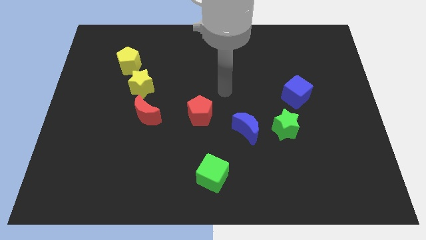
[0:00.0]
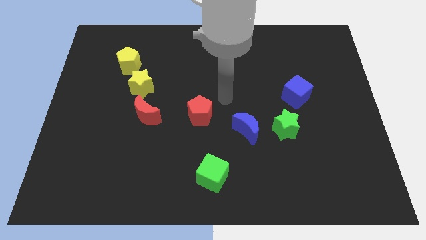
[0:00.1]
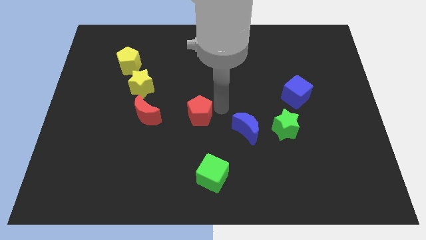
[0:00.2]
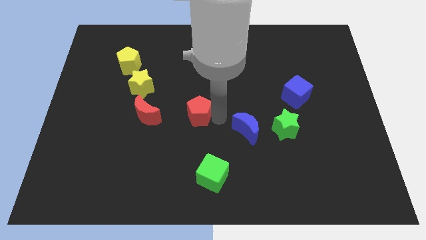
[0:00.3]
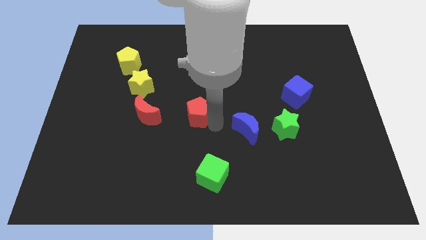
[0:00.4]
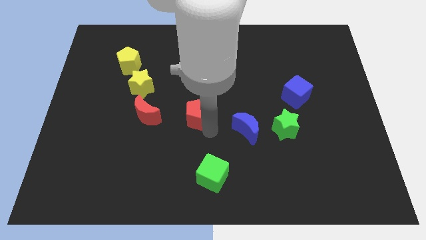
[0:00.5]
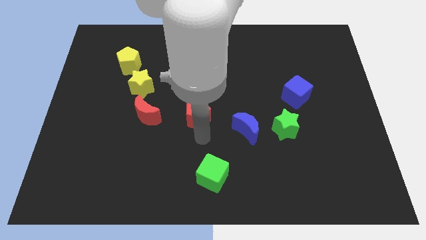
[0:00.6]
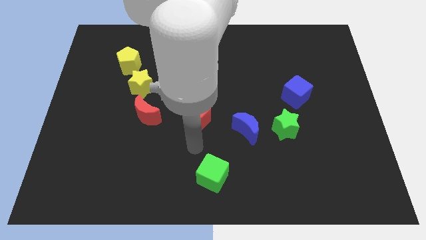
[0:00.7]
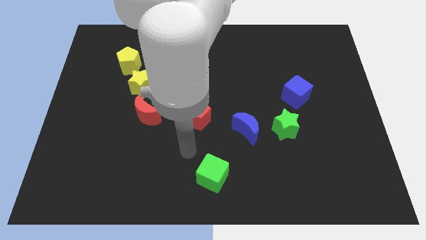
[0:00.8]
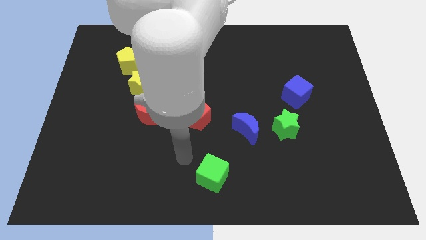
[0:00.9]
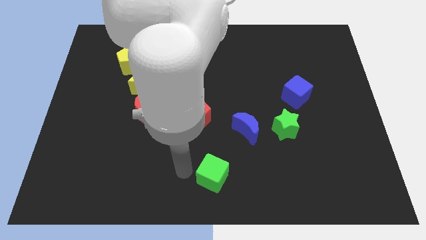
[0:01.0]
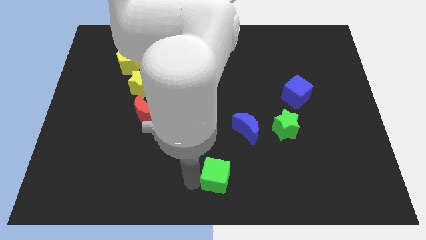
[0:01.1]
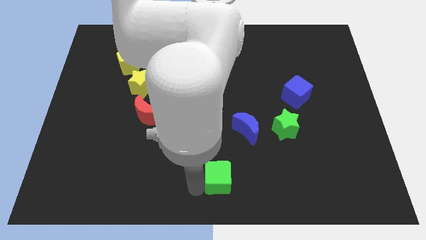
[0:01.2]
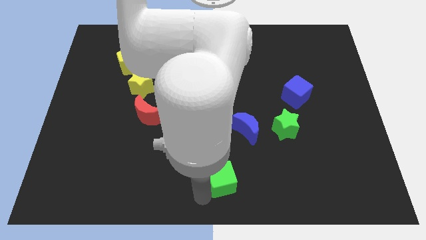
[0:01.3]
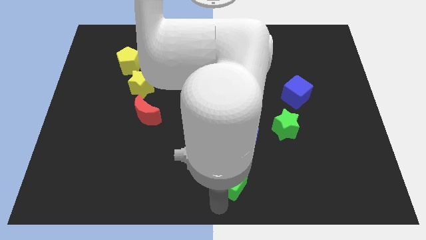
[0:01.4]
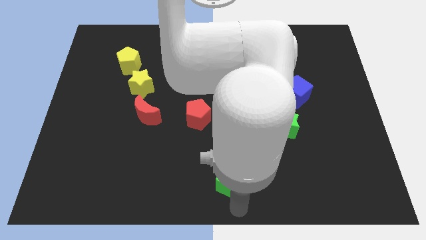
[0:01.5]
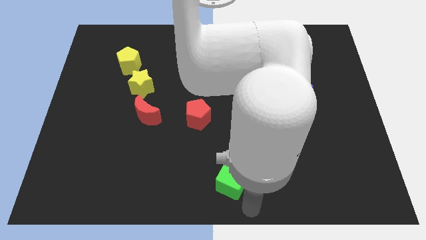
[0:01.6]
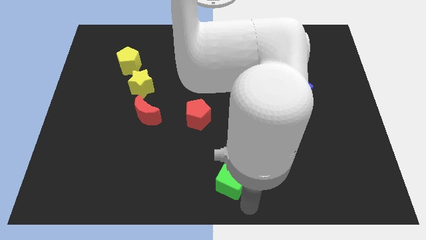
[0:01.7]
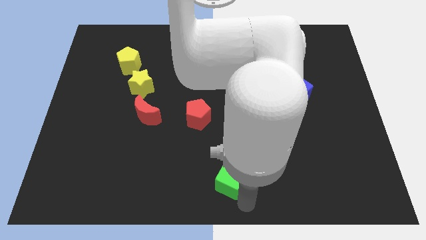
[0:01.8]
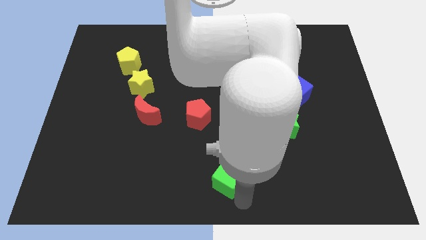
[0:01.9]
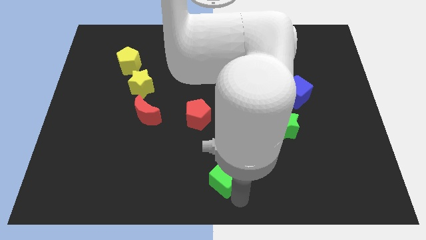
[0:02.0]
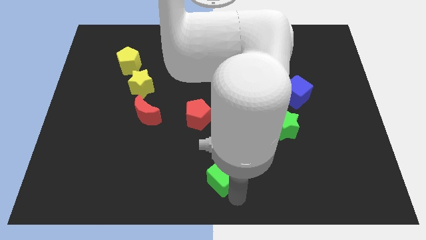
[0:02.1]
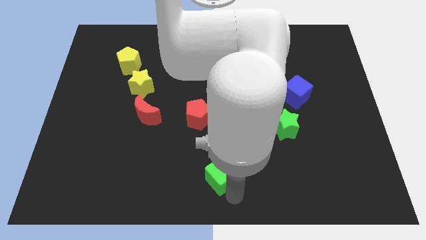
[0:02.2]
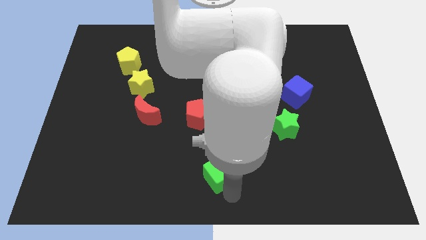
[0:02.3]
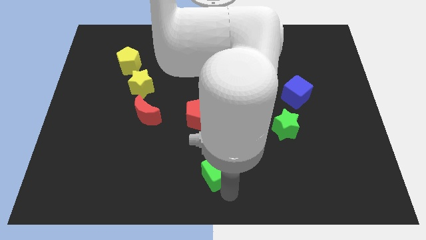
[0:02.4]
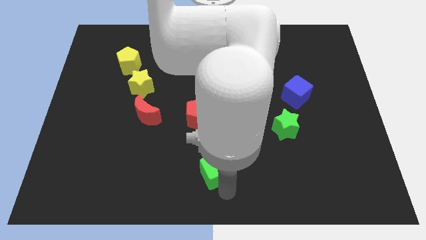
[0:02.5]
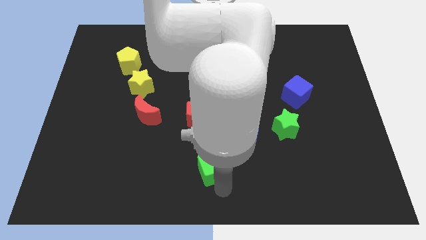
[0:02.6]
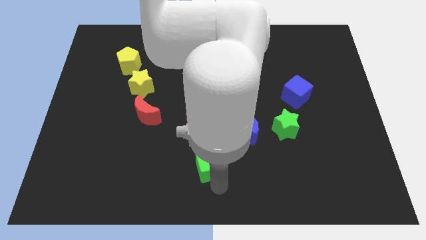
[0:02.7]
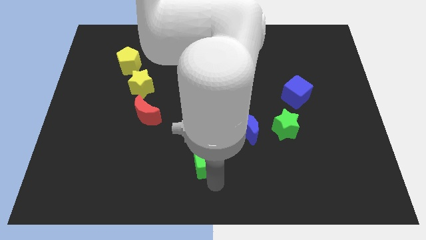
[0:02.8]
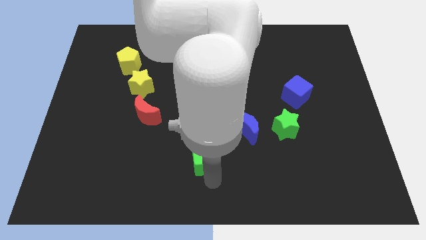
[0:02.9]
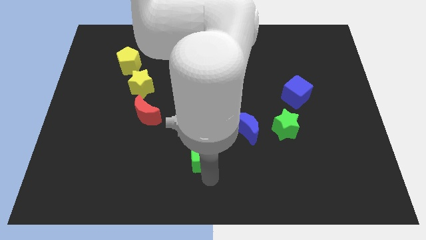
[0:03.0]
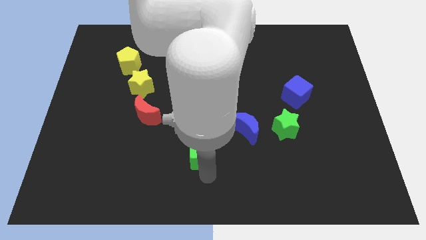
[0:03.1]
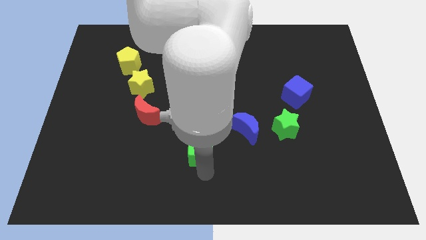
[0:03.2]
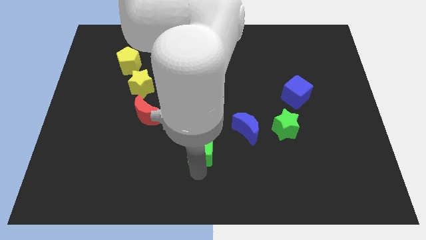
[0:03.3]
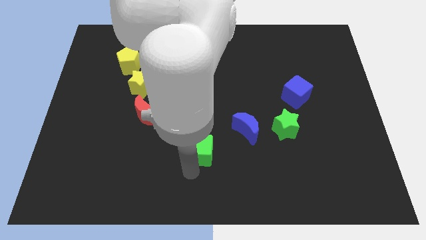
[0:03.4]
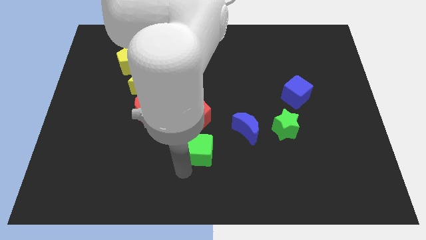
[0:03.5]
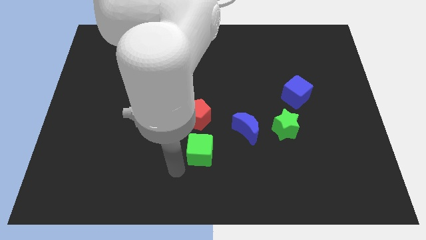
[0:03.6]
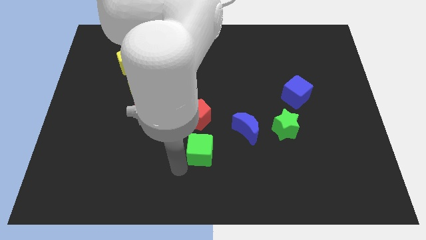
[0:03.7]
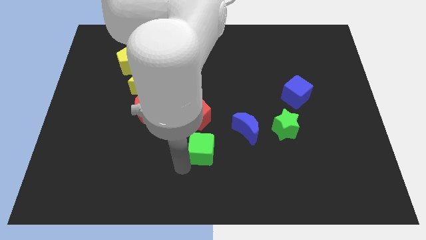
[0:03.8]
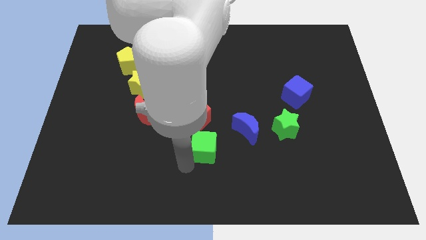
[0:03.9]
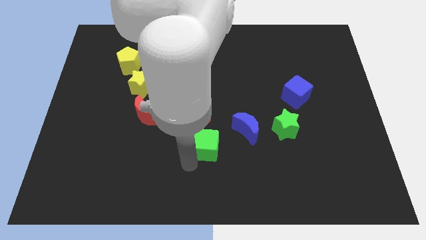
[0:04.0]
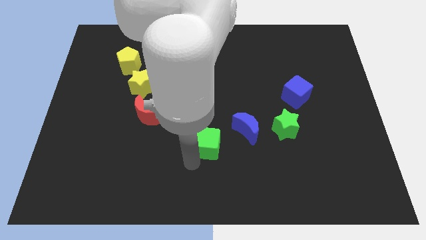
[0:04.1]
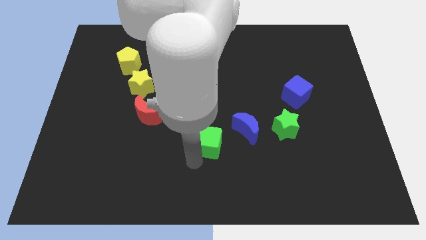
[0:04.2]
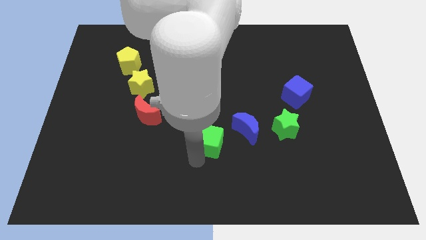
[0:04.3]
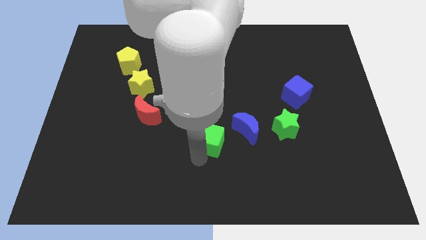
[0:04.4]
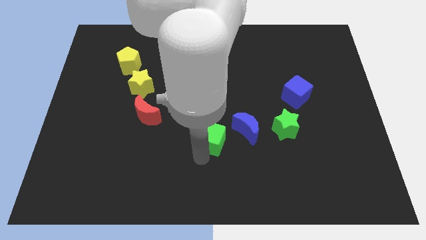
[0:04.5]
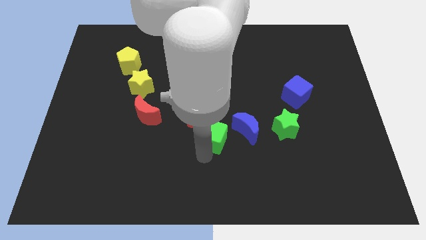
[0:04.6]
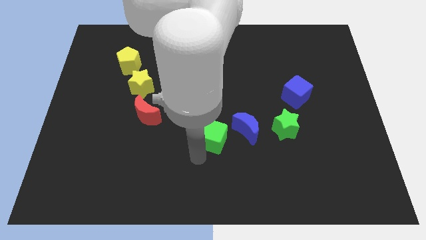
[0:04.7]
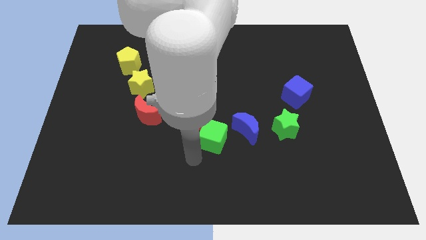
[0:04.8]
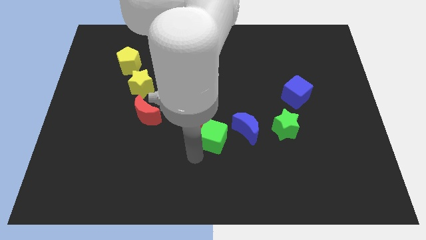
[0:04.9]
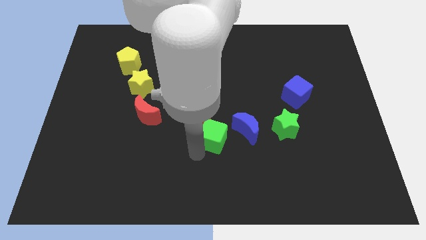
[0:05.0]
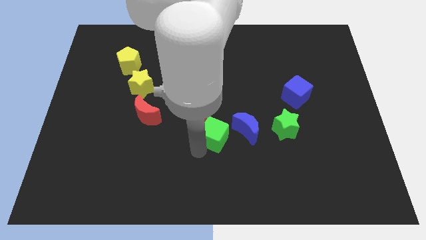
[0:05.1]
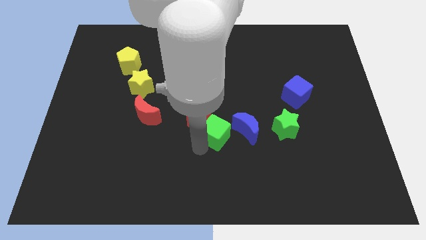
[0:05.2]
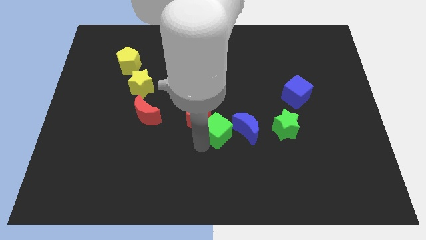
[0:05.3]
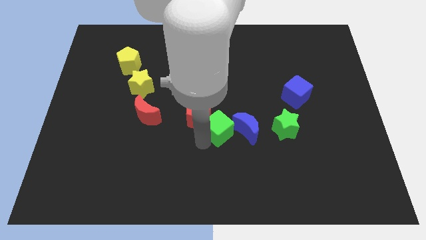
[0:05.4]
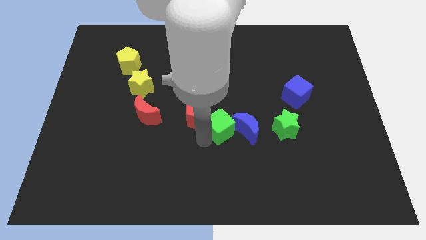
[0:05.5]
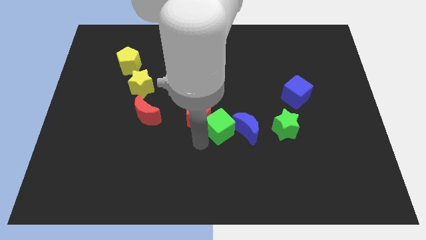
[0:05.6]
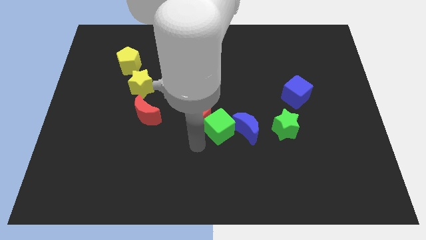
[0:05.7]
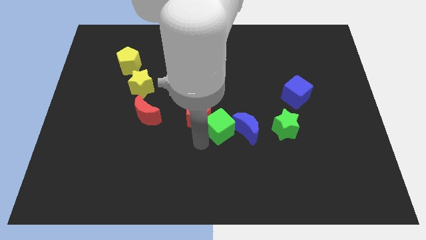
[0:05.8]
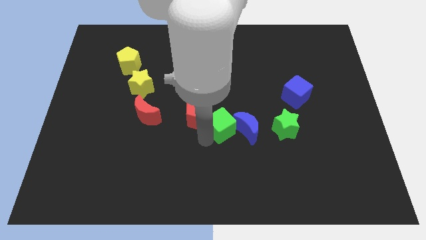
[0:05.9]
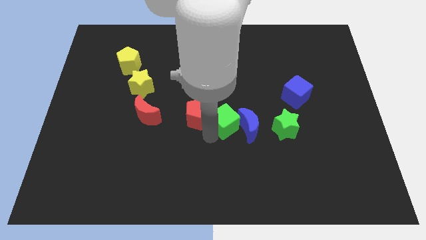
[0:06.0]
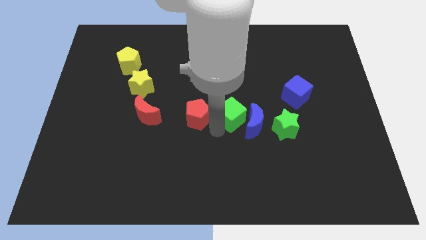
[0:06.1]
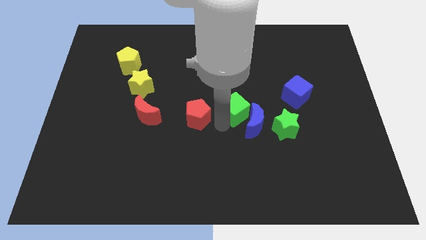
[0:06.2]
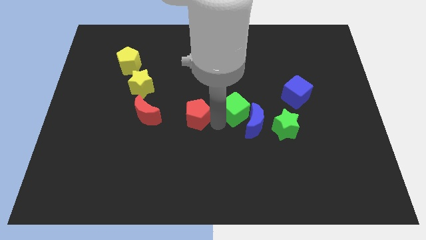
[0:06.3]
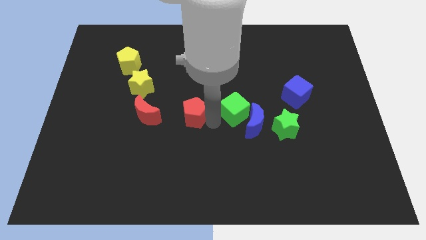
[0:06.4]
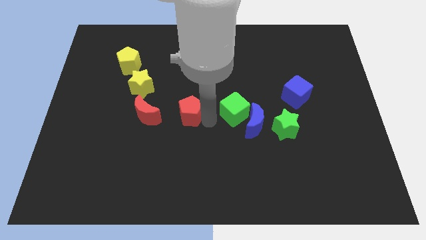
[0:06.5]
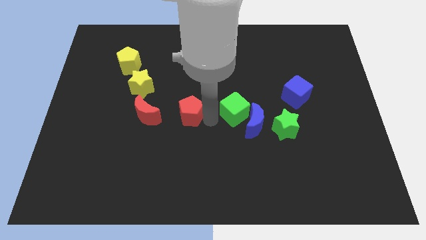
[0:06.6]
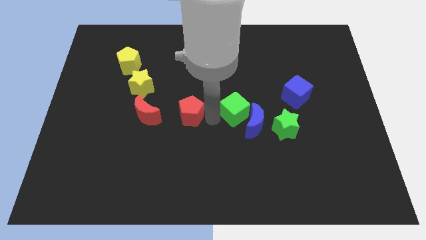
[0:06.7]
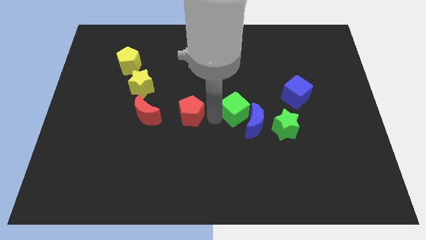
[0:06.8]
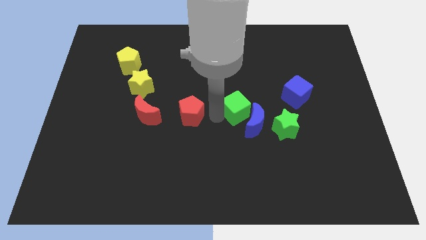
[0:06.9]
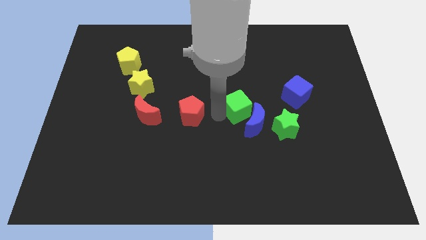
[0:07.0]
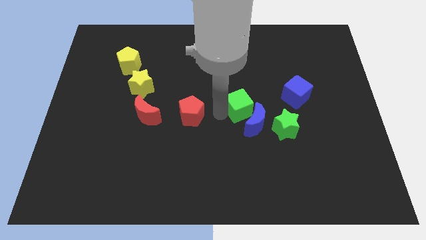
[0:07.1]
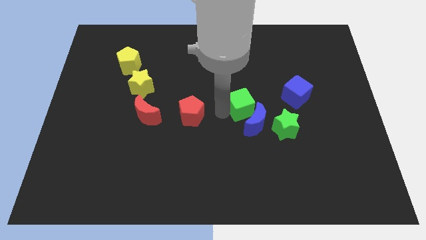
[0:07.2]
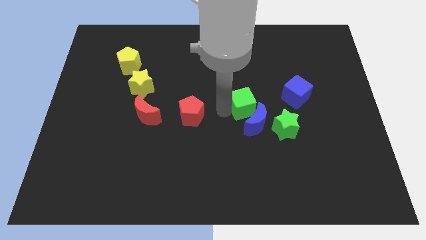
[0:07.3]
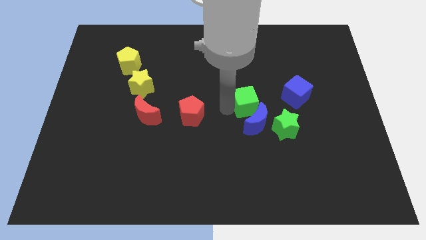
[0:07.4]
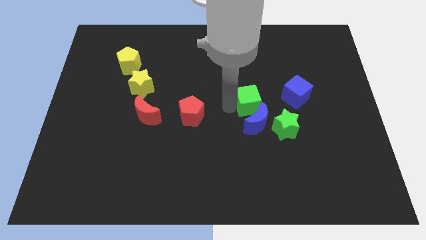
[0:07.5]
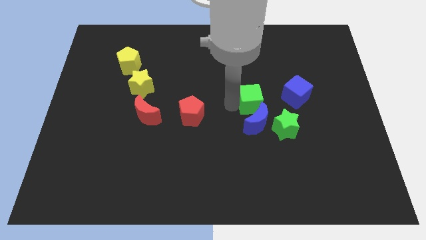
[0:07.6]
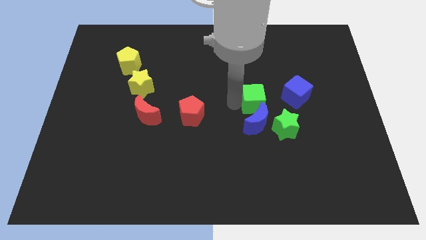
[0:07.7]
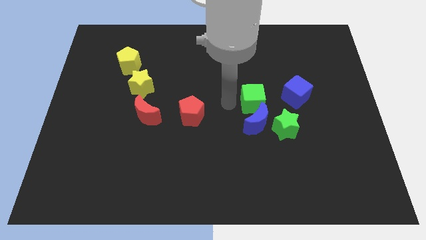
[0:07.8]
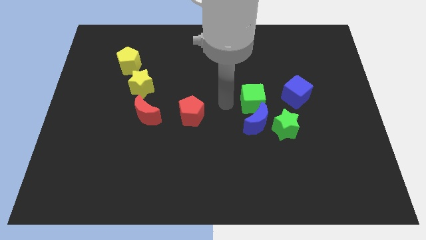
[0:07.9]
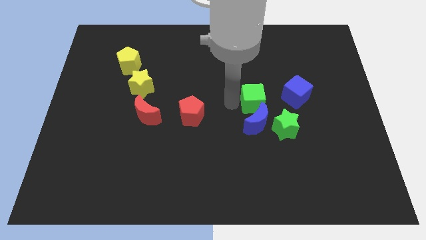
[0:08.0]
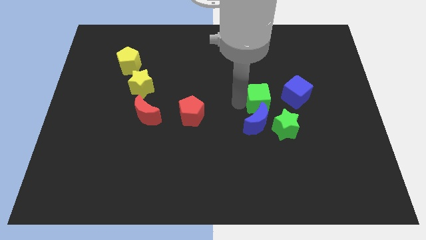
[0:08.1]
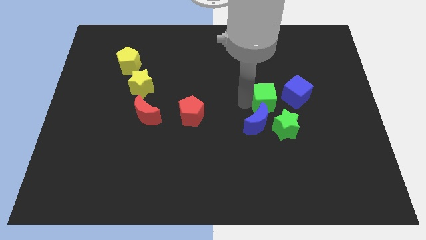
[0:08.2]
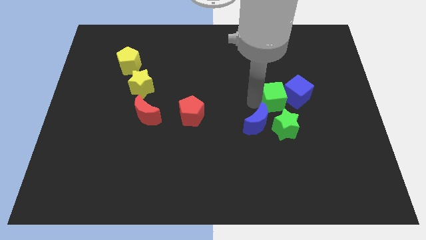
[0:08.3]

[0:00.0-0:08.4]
push the green cube close to the blue cube
